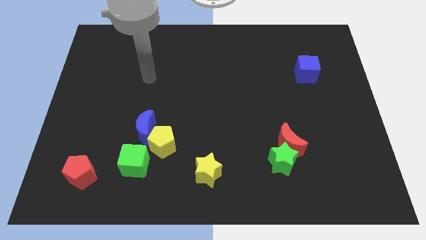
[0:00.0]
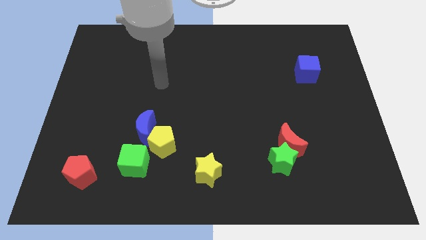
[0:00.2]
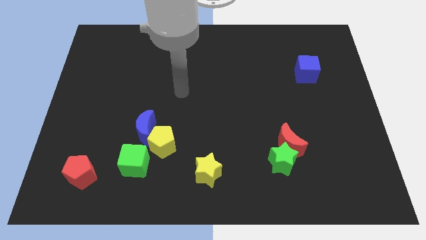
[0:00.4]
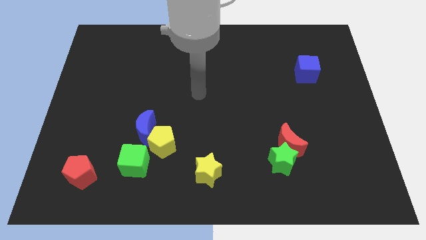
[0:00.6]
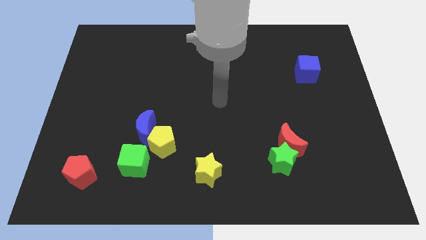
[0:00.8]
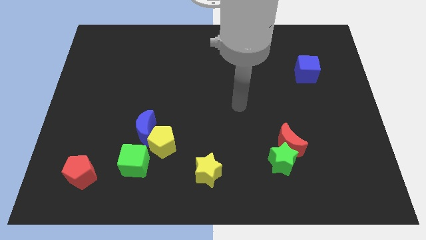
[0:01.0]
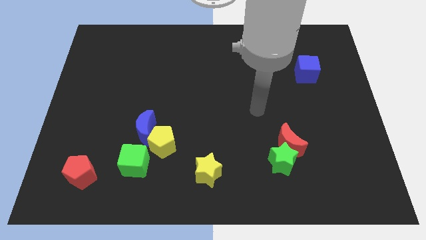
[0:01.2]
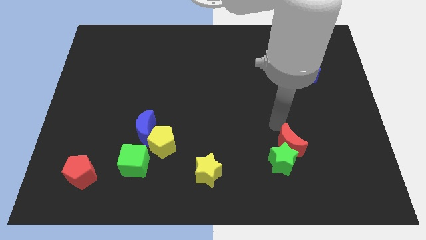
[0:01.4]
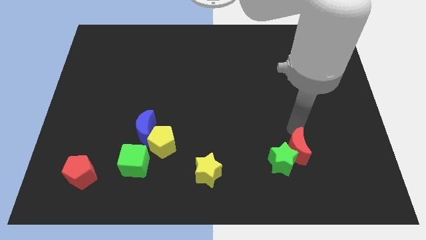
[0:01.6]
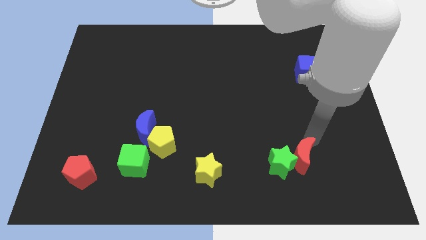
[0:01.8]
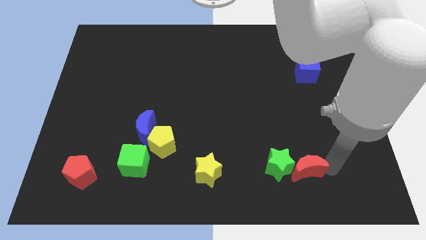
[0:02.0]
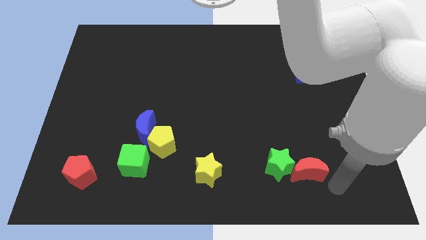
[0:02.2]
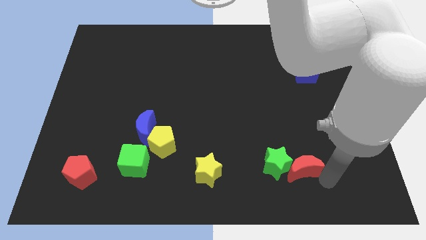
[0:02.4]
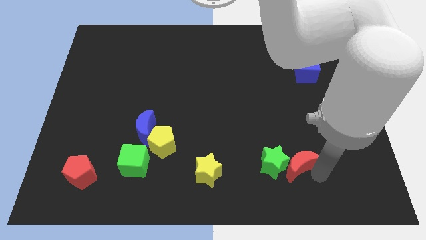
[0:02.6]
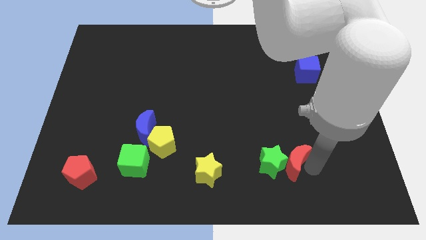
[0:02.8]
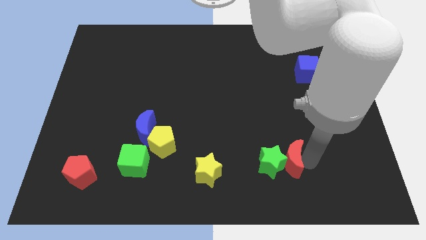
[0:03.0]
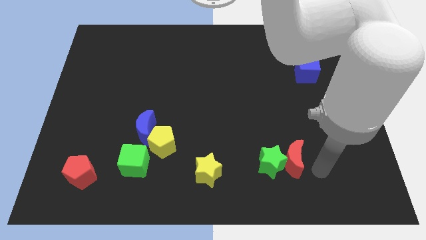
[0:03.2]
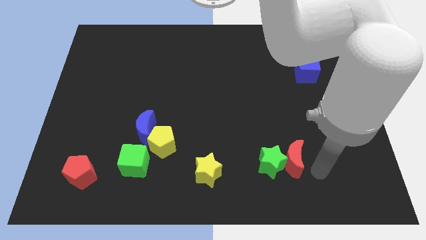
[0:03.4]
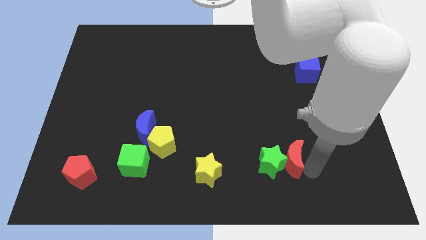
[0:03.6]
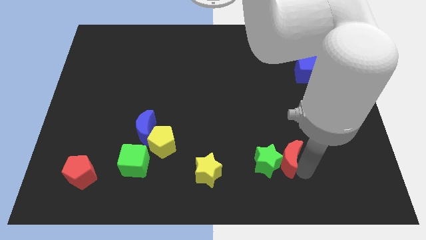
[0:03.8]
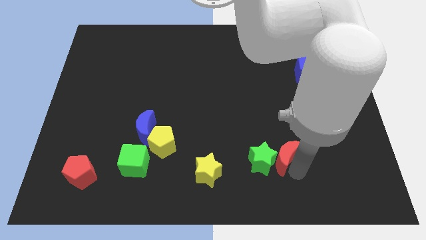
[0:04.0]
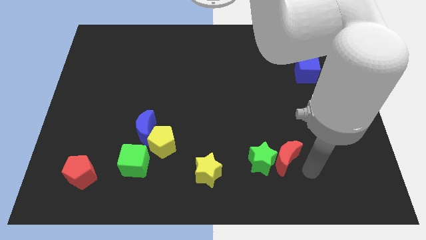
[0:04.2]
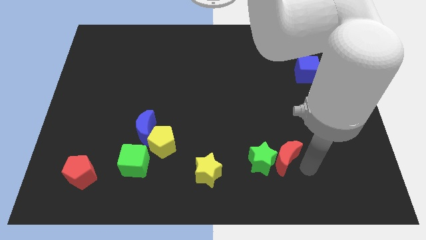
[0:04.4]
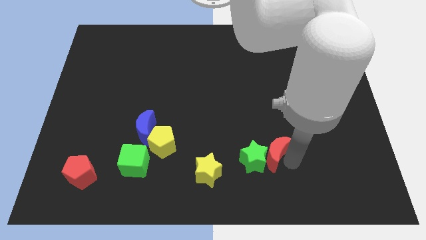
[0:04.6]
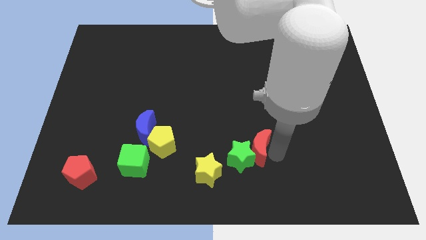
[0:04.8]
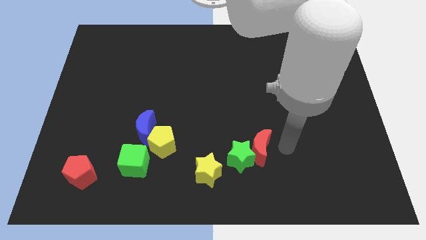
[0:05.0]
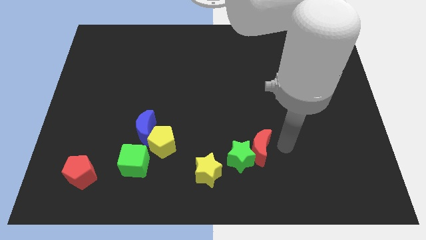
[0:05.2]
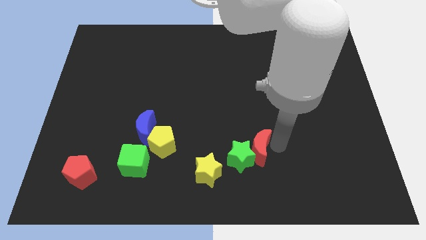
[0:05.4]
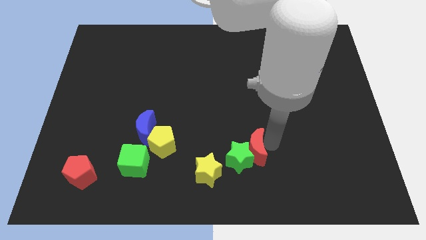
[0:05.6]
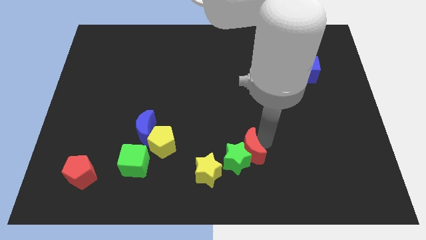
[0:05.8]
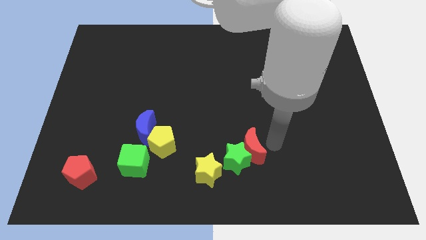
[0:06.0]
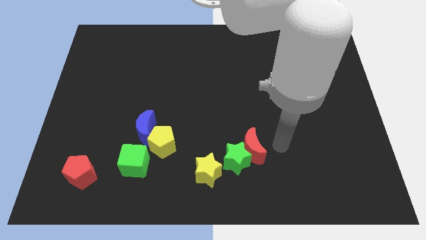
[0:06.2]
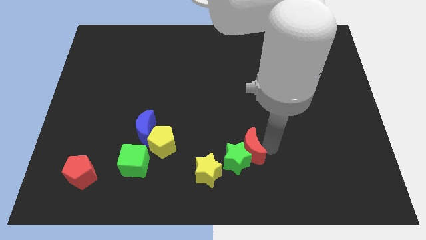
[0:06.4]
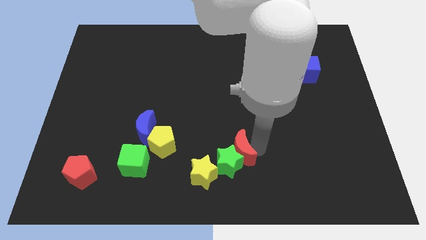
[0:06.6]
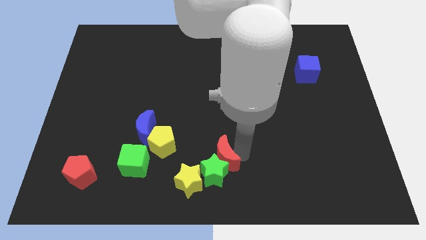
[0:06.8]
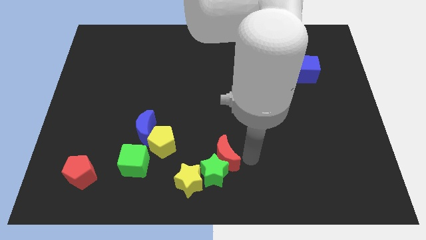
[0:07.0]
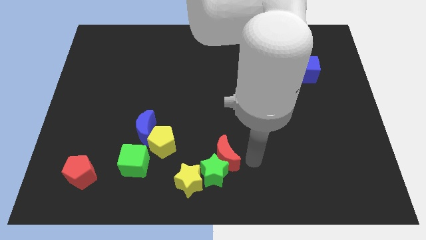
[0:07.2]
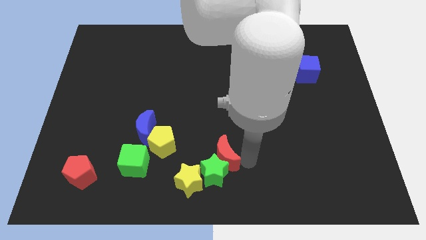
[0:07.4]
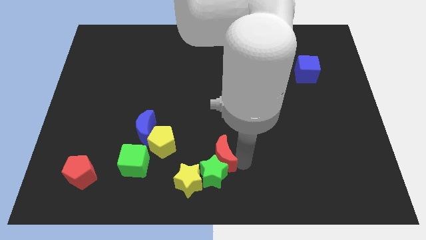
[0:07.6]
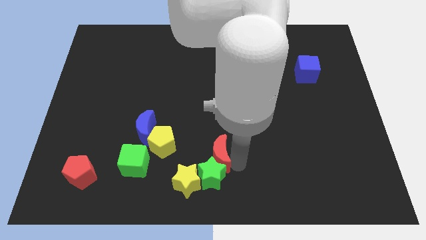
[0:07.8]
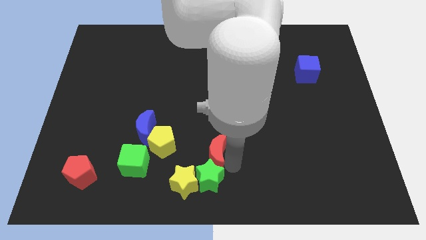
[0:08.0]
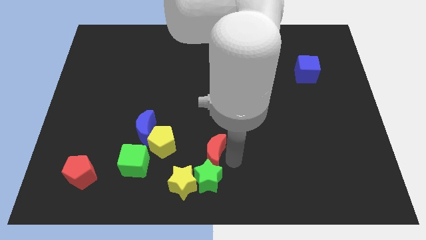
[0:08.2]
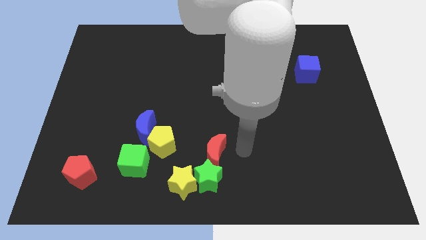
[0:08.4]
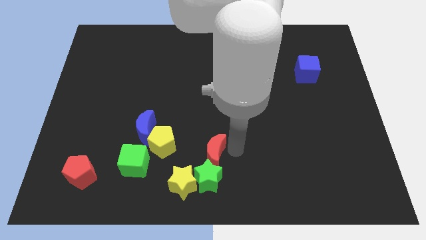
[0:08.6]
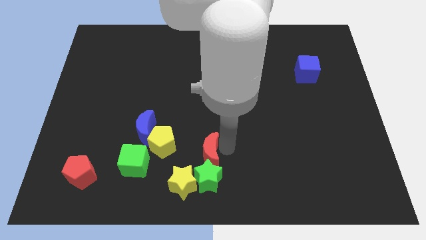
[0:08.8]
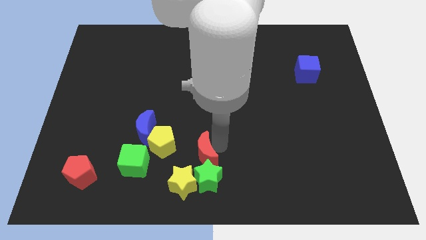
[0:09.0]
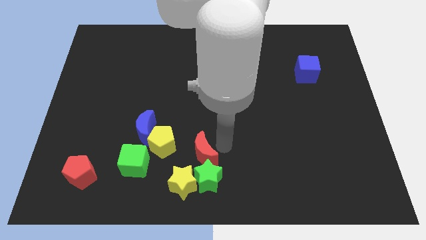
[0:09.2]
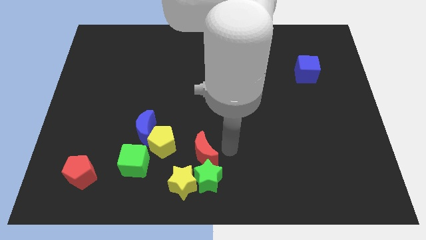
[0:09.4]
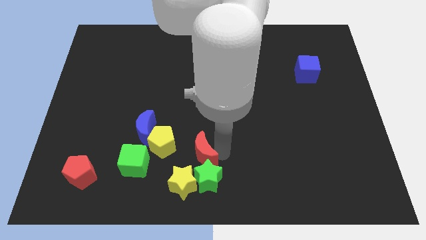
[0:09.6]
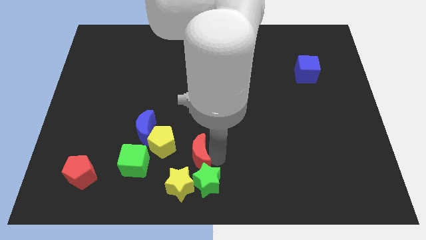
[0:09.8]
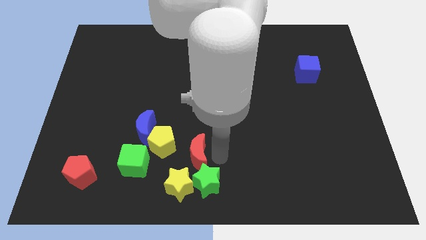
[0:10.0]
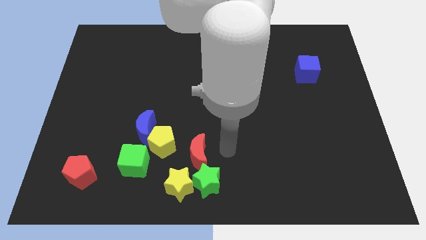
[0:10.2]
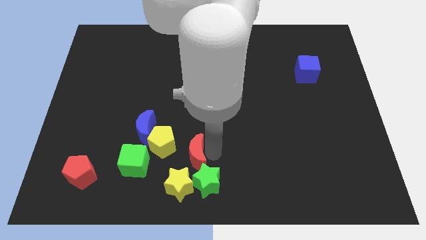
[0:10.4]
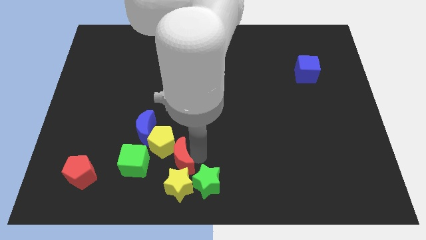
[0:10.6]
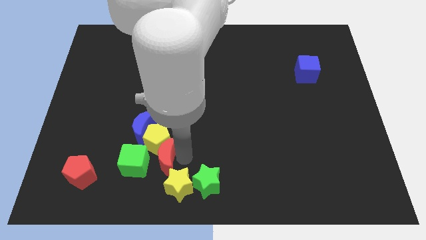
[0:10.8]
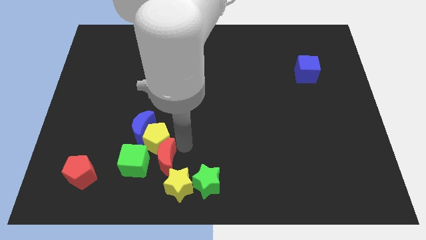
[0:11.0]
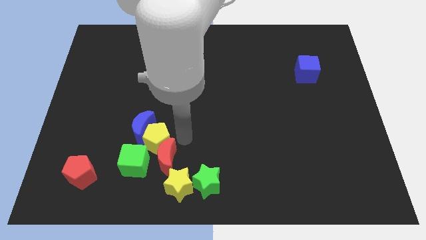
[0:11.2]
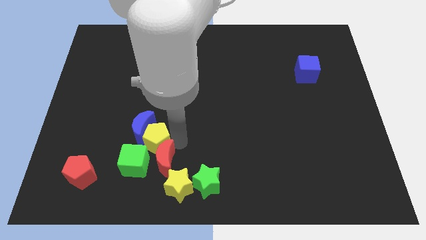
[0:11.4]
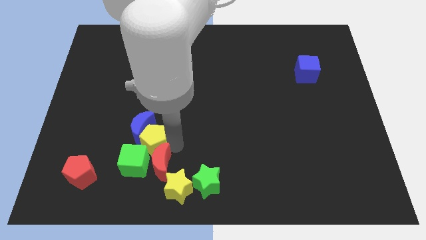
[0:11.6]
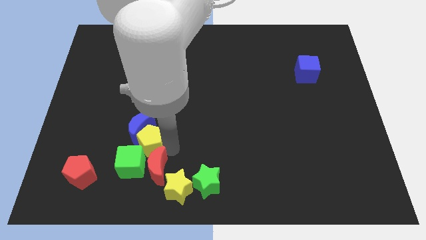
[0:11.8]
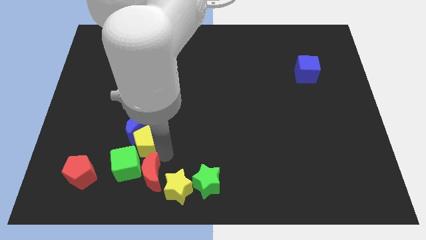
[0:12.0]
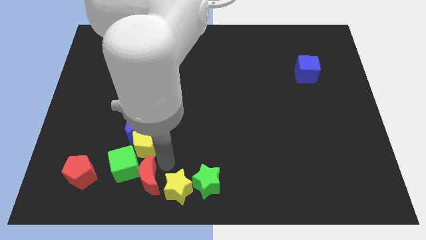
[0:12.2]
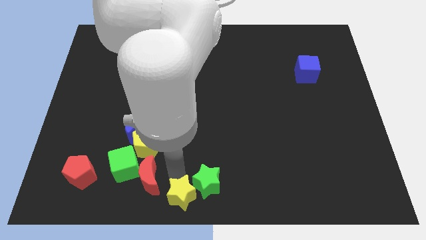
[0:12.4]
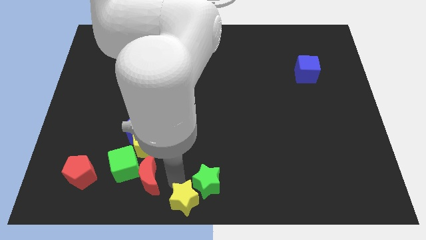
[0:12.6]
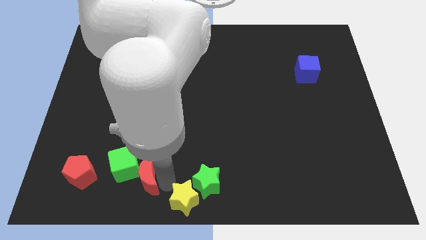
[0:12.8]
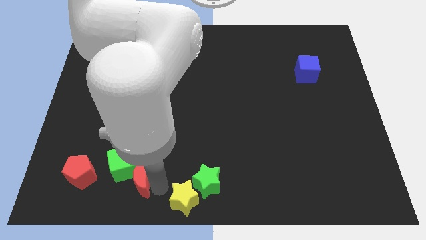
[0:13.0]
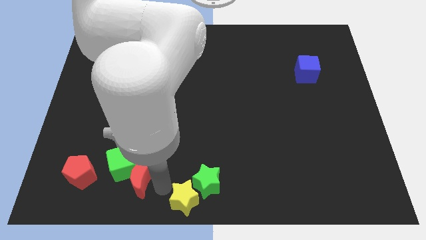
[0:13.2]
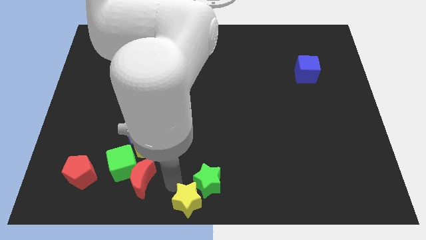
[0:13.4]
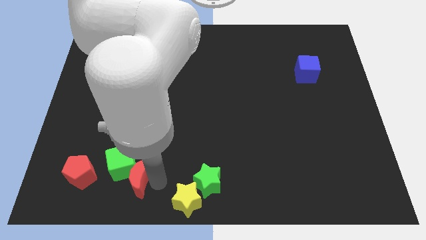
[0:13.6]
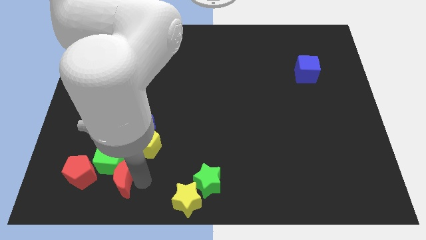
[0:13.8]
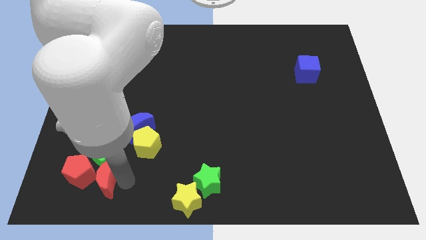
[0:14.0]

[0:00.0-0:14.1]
push the red moon to the red pentagon
